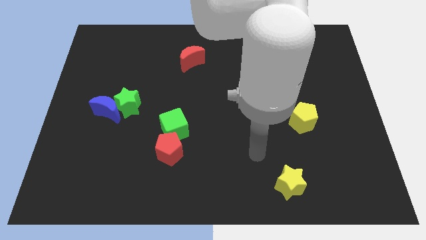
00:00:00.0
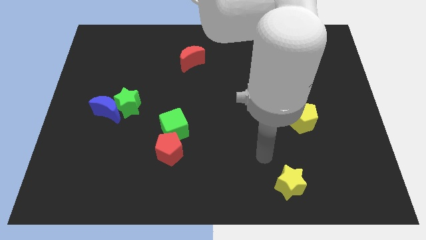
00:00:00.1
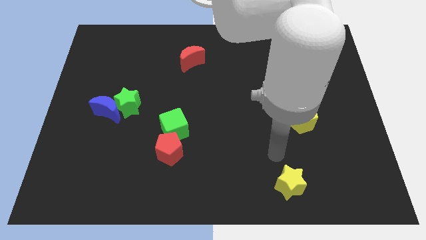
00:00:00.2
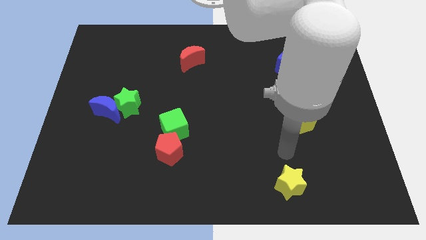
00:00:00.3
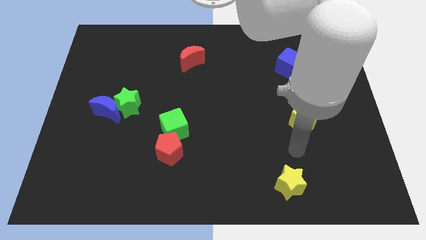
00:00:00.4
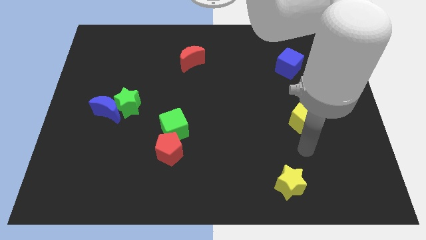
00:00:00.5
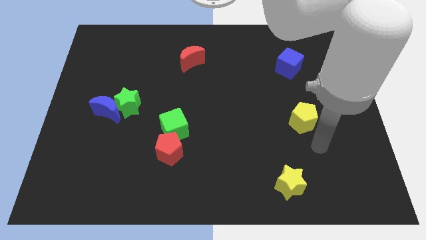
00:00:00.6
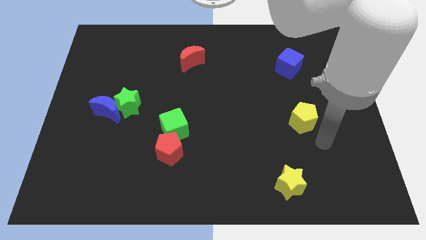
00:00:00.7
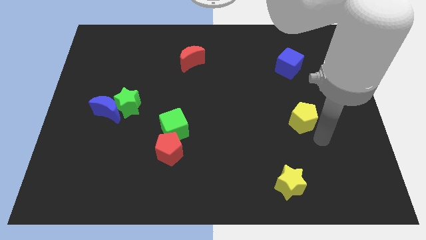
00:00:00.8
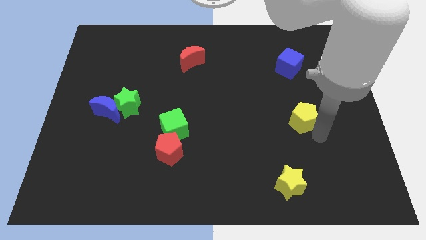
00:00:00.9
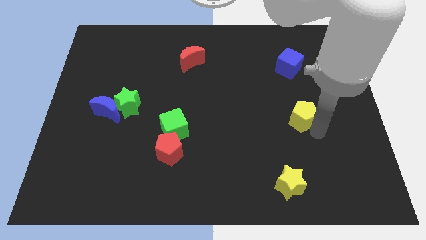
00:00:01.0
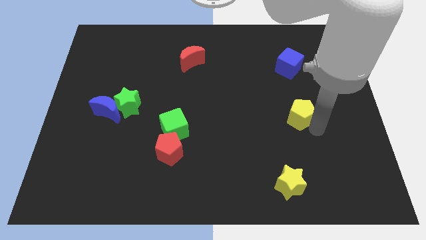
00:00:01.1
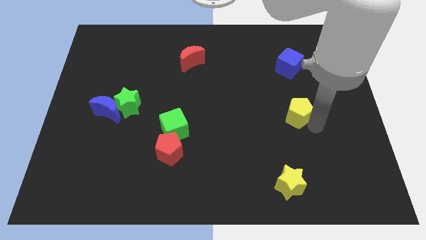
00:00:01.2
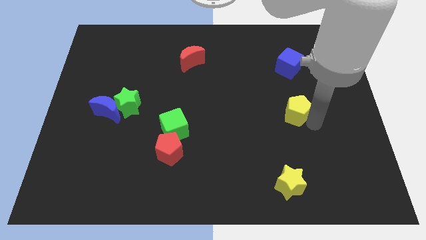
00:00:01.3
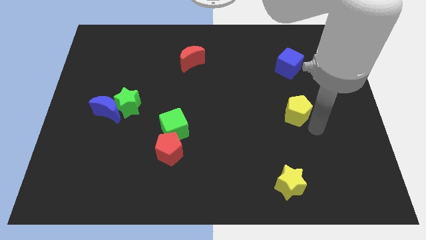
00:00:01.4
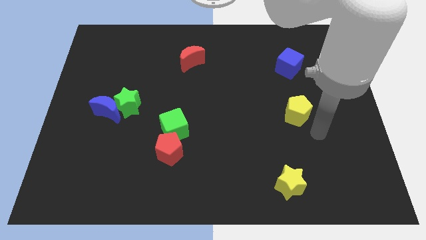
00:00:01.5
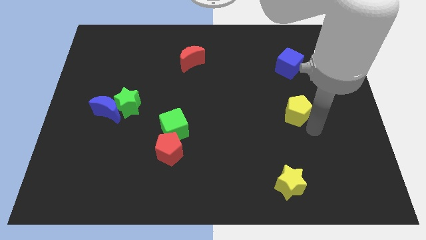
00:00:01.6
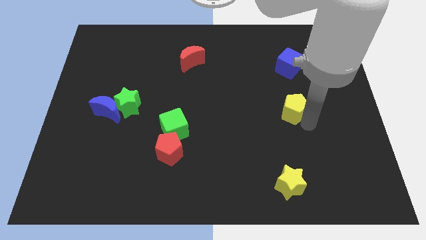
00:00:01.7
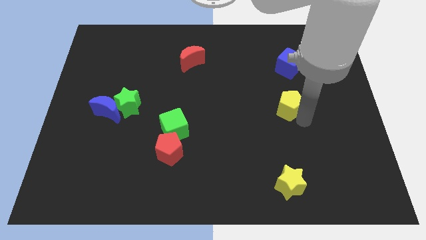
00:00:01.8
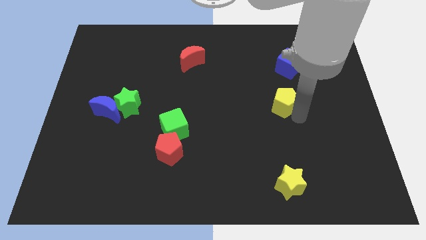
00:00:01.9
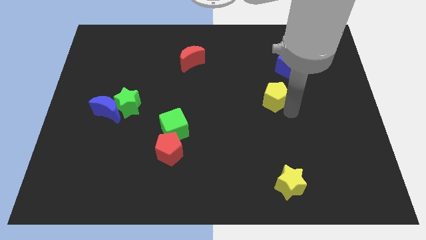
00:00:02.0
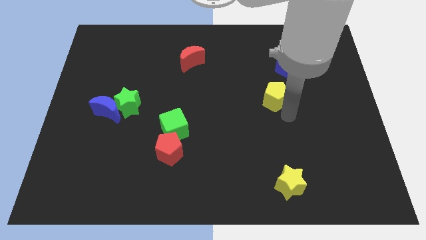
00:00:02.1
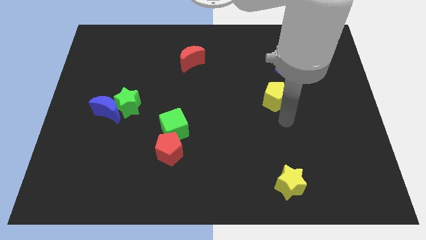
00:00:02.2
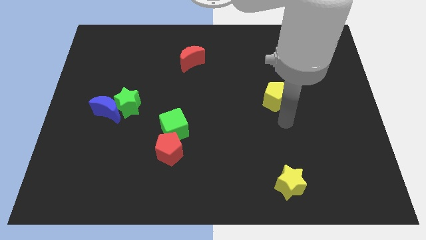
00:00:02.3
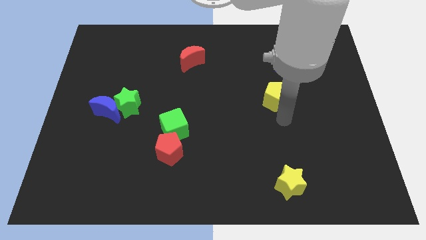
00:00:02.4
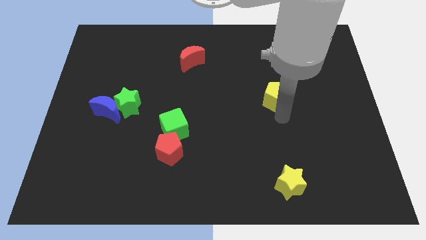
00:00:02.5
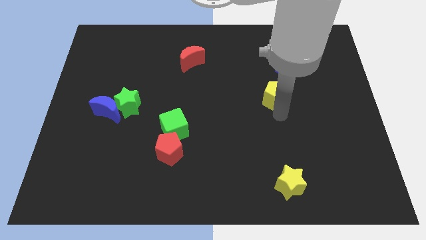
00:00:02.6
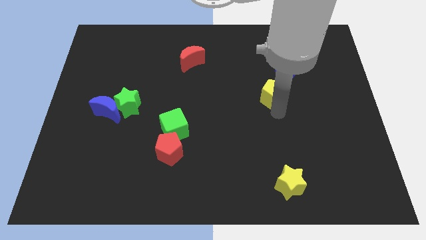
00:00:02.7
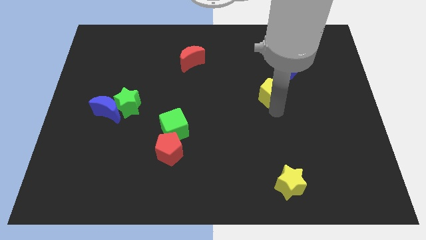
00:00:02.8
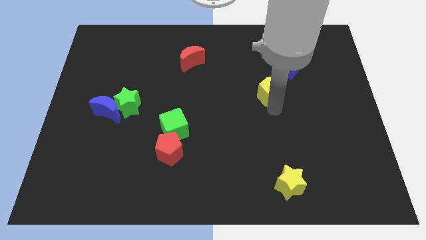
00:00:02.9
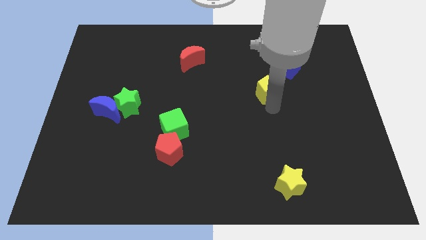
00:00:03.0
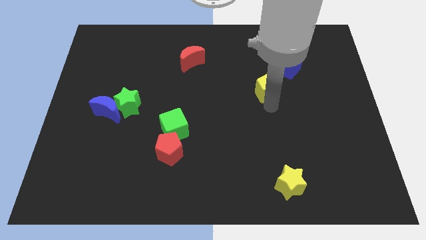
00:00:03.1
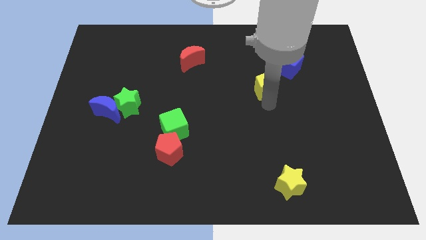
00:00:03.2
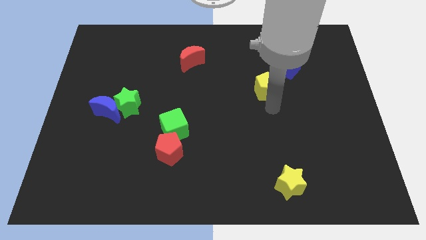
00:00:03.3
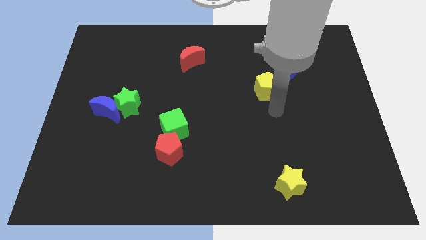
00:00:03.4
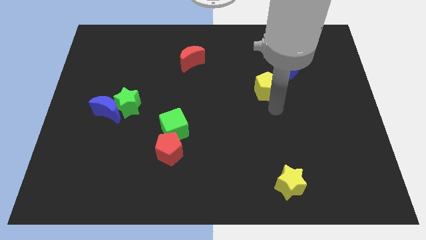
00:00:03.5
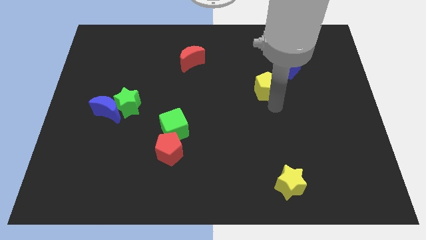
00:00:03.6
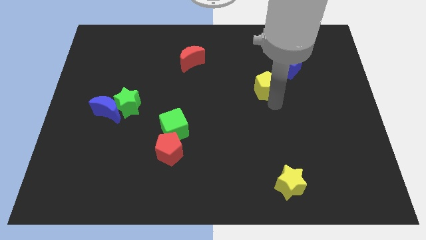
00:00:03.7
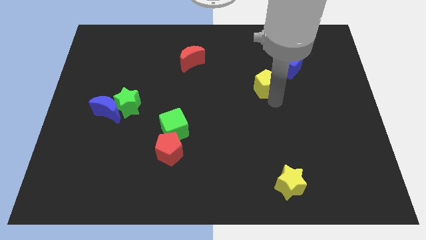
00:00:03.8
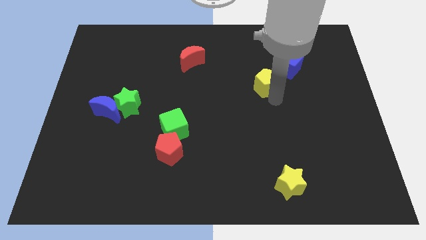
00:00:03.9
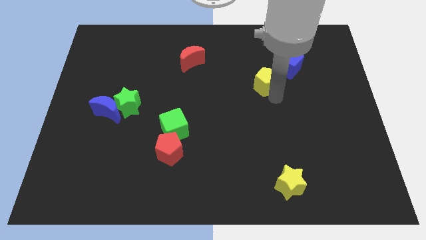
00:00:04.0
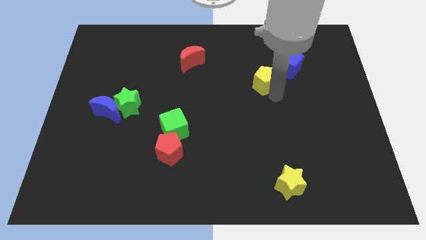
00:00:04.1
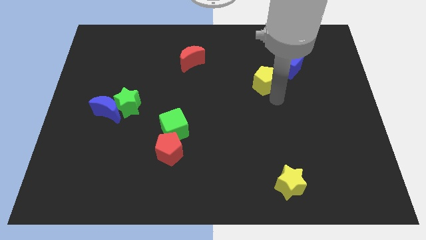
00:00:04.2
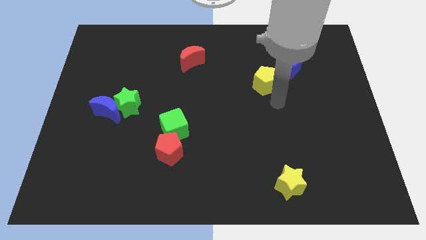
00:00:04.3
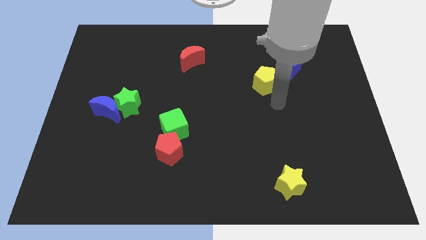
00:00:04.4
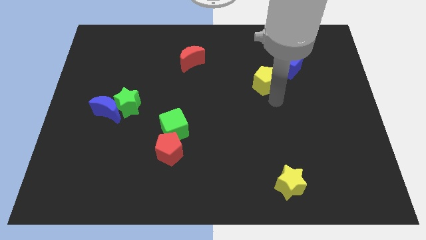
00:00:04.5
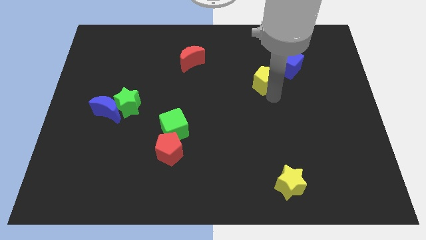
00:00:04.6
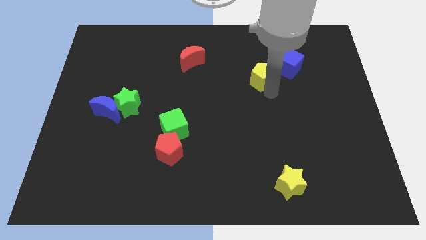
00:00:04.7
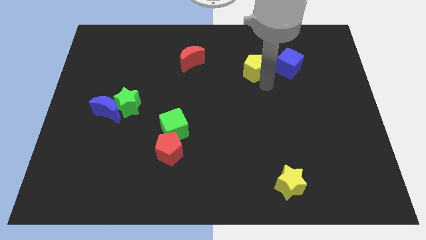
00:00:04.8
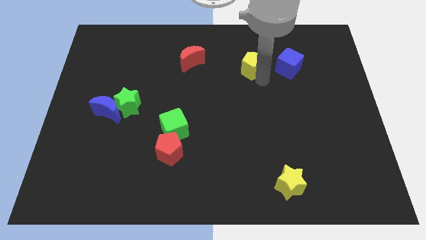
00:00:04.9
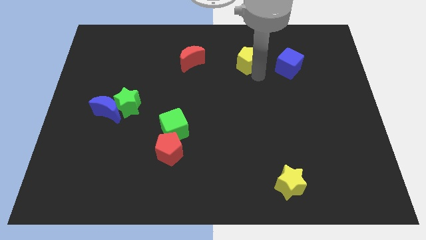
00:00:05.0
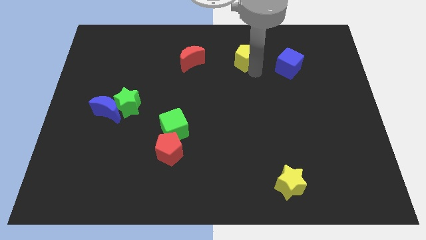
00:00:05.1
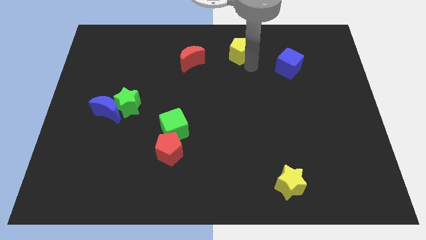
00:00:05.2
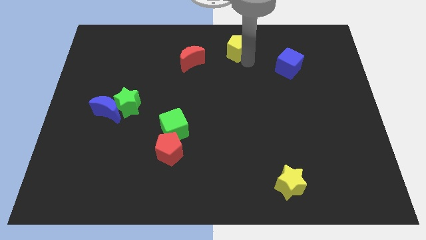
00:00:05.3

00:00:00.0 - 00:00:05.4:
move the yellow pentagon to the towards your base

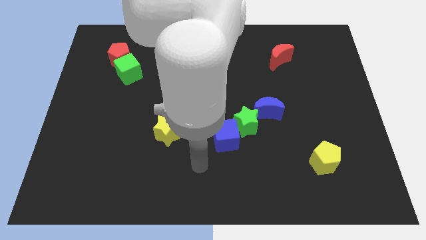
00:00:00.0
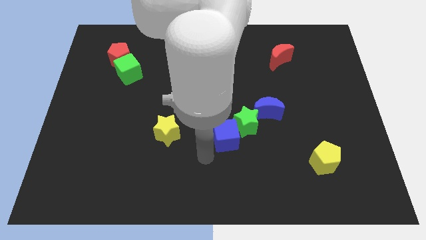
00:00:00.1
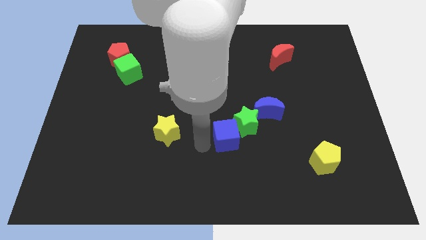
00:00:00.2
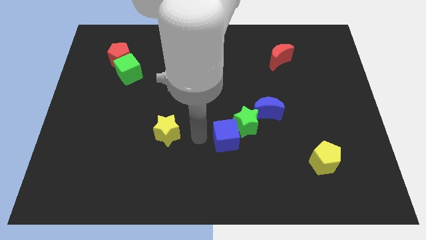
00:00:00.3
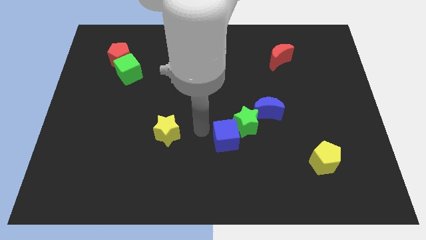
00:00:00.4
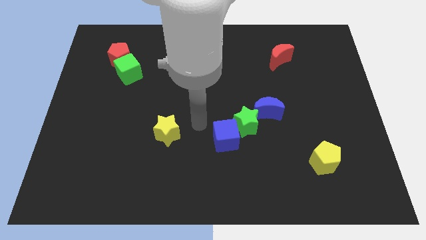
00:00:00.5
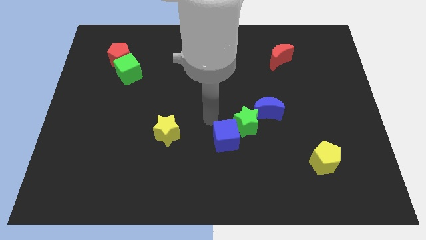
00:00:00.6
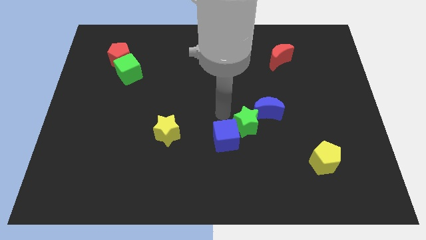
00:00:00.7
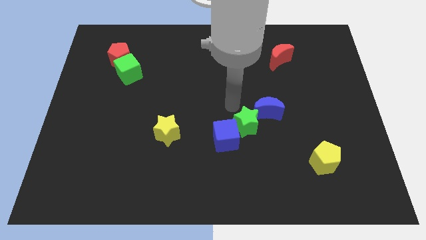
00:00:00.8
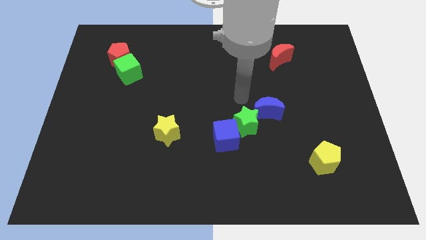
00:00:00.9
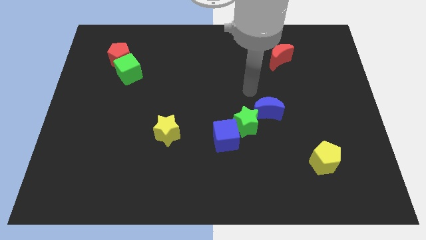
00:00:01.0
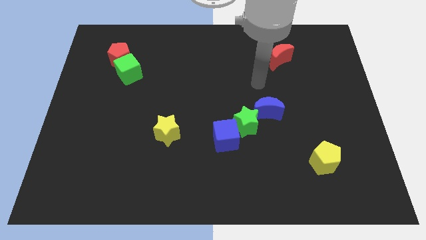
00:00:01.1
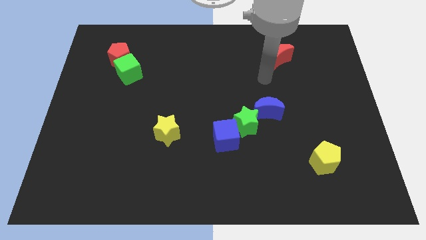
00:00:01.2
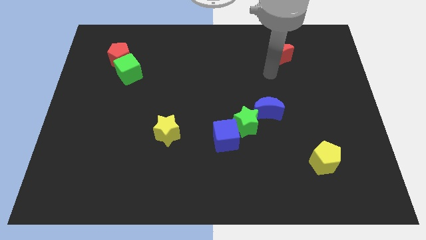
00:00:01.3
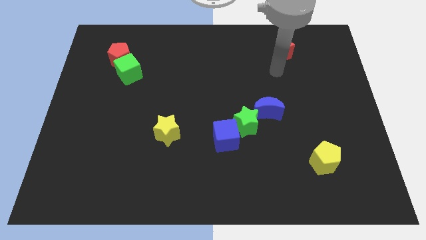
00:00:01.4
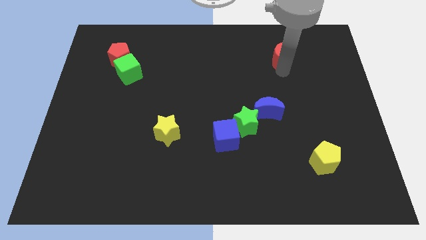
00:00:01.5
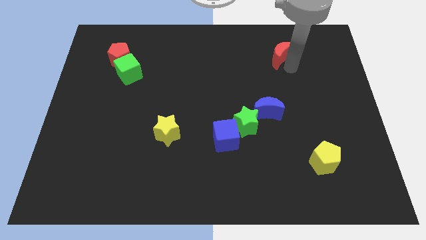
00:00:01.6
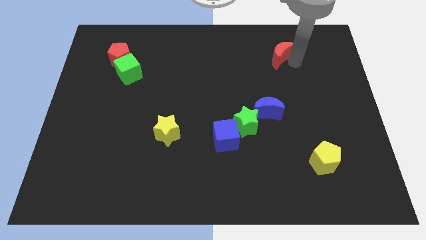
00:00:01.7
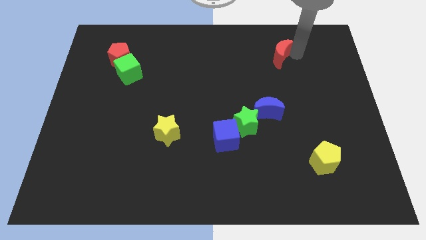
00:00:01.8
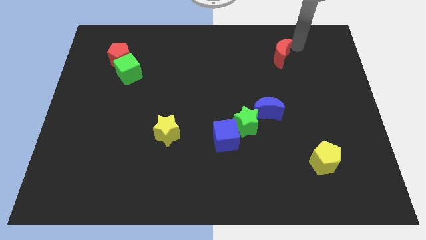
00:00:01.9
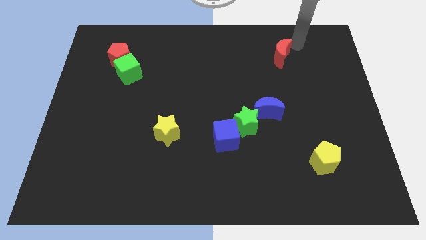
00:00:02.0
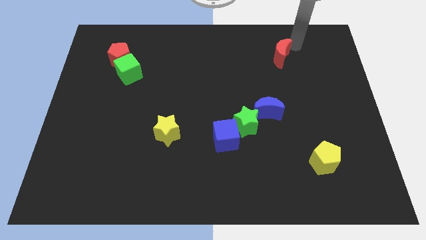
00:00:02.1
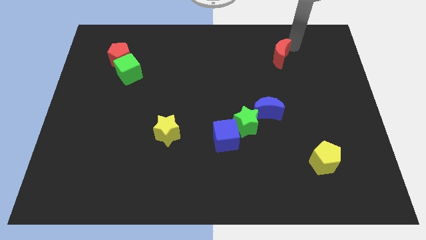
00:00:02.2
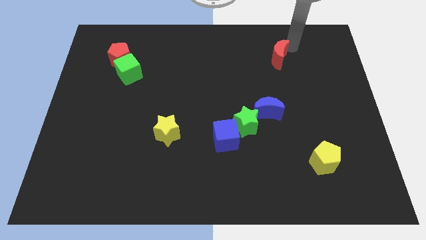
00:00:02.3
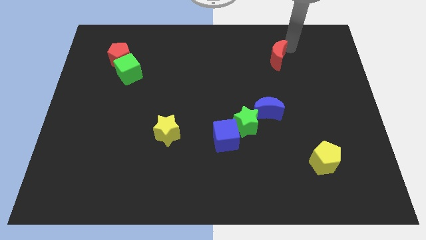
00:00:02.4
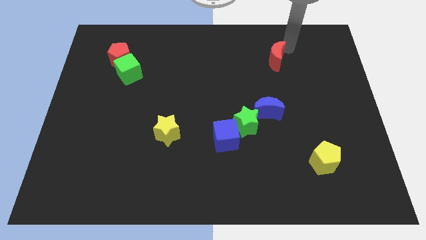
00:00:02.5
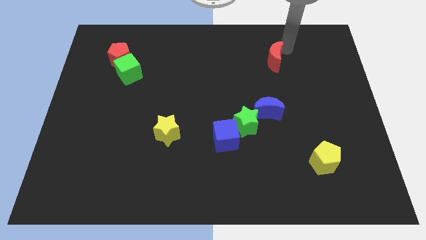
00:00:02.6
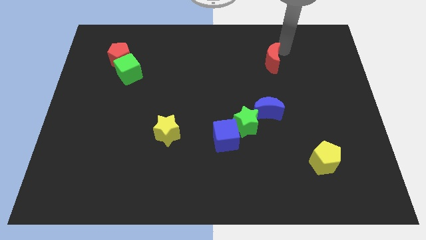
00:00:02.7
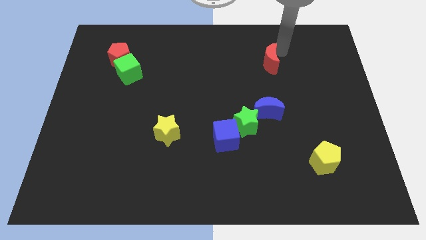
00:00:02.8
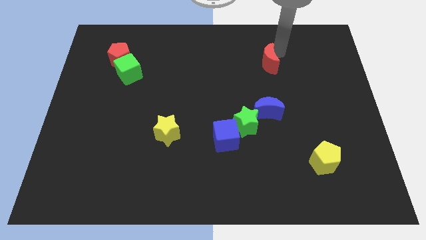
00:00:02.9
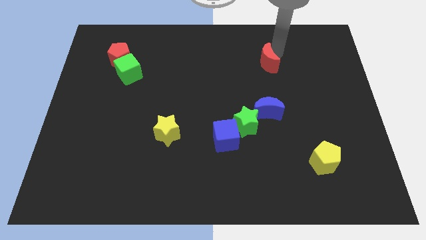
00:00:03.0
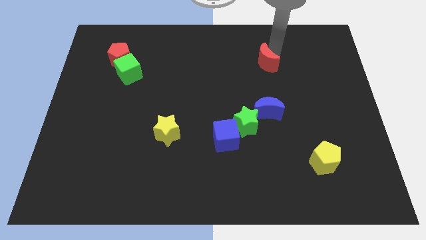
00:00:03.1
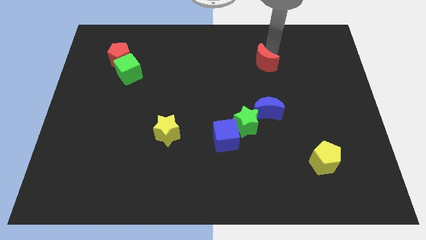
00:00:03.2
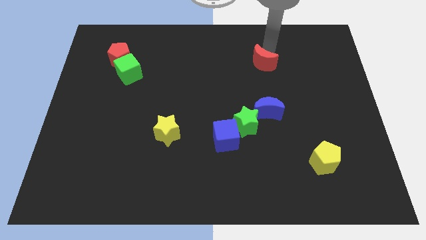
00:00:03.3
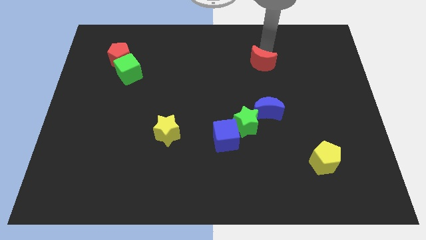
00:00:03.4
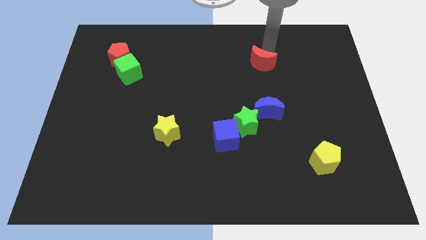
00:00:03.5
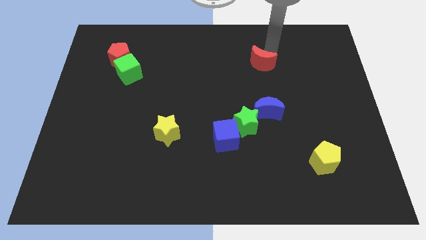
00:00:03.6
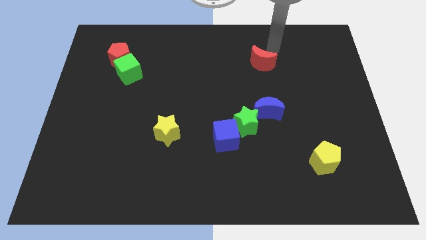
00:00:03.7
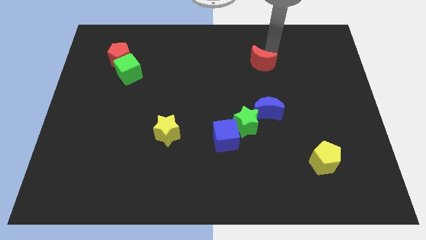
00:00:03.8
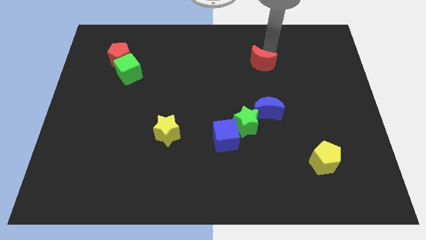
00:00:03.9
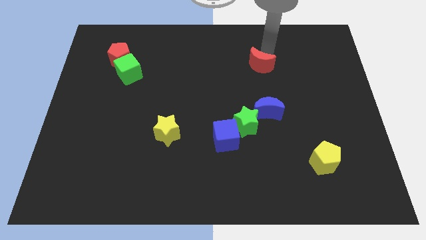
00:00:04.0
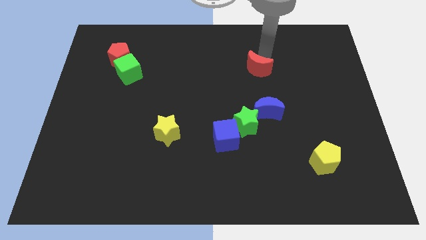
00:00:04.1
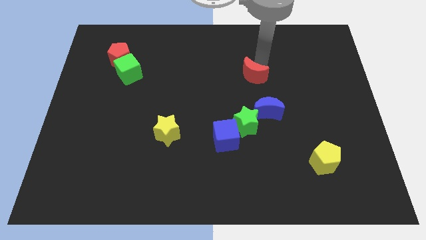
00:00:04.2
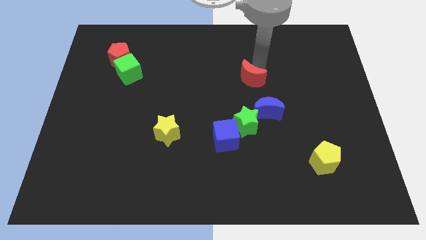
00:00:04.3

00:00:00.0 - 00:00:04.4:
move the red moon to the center
